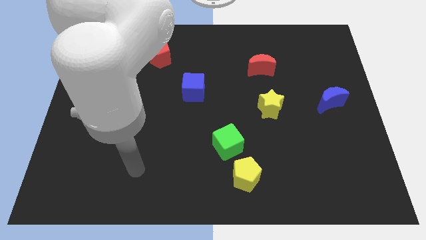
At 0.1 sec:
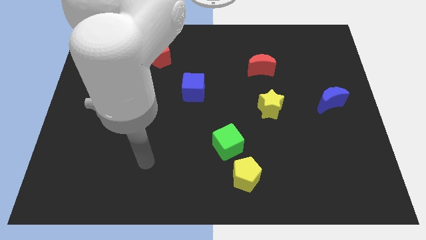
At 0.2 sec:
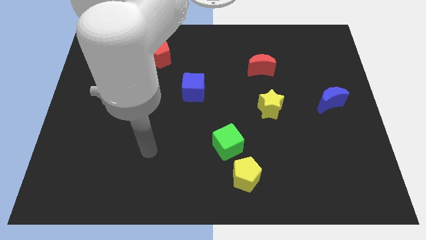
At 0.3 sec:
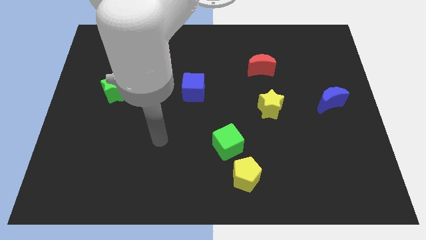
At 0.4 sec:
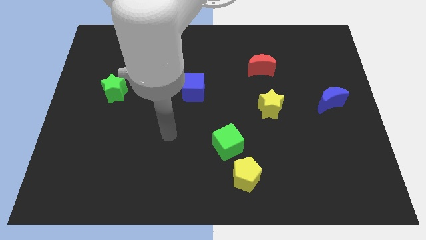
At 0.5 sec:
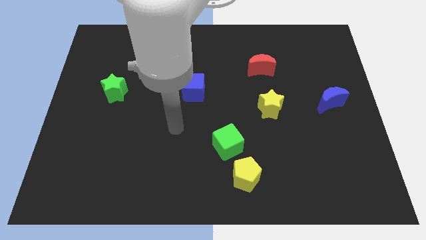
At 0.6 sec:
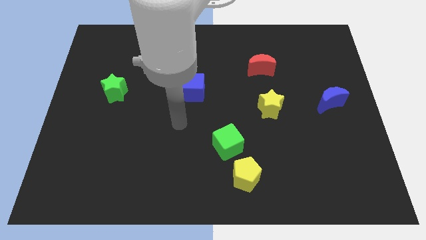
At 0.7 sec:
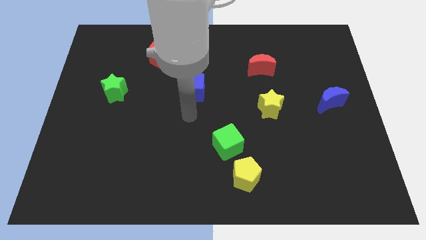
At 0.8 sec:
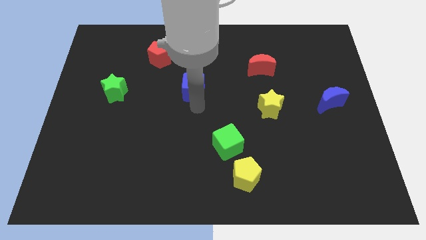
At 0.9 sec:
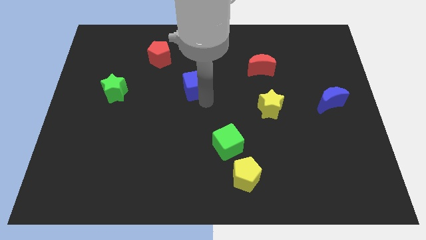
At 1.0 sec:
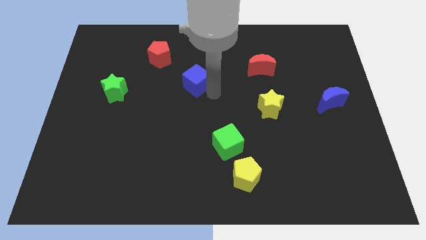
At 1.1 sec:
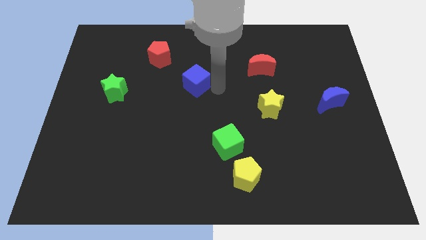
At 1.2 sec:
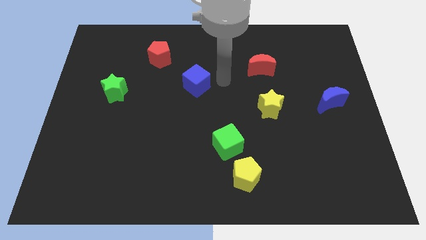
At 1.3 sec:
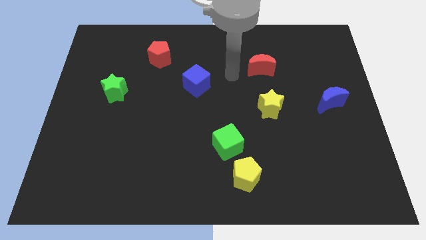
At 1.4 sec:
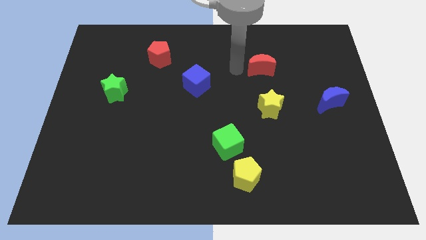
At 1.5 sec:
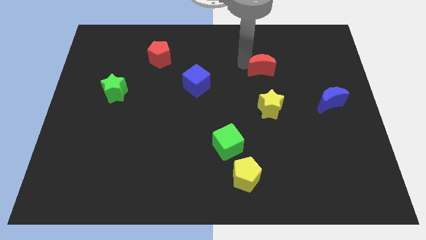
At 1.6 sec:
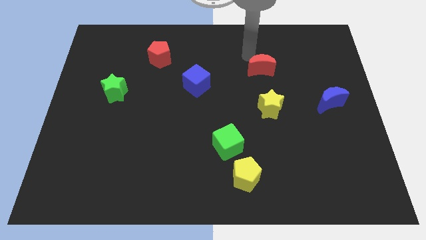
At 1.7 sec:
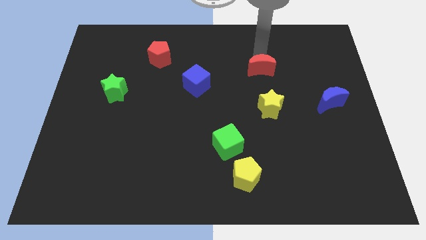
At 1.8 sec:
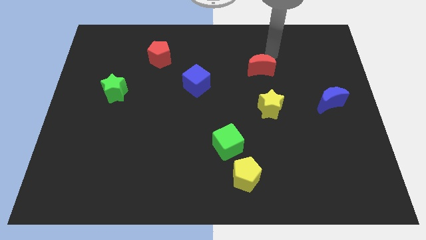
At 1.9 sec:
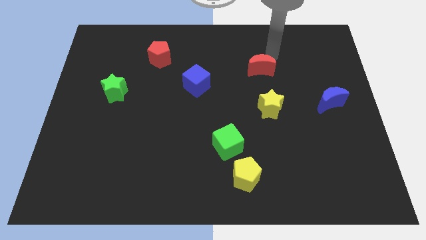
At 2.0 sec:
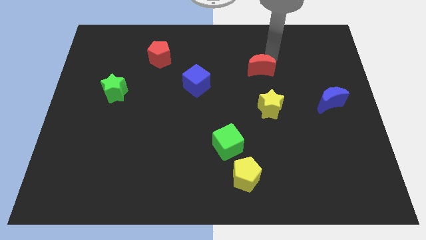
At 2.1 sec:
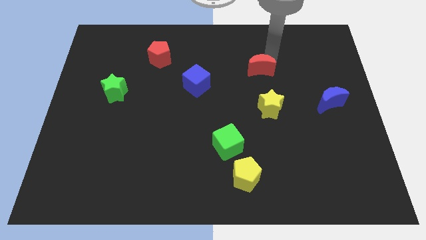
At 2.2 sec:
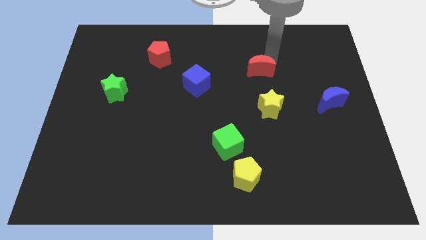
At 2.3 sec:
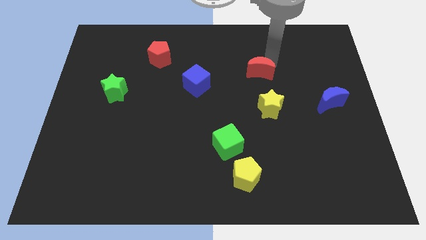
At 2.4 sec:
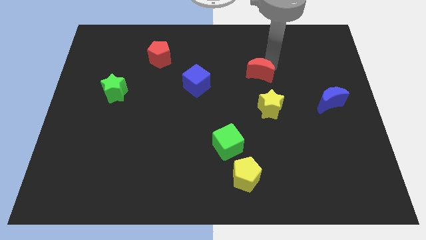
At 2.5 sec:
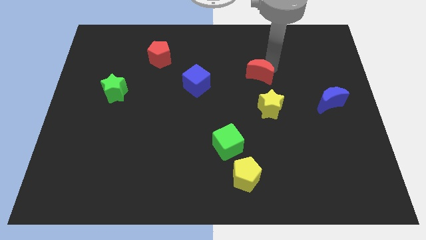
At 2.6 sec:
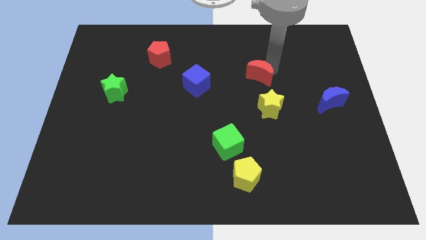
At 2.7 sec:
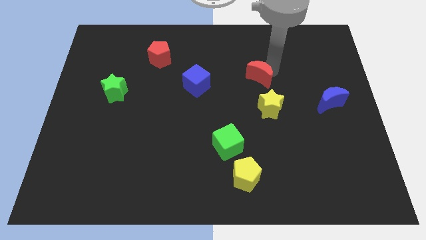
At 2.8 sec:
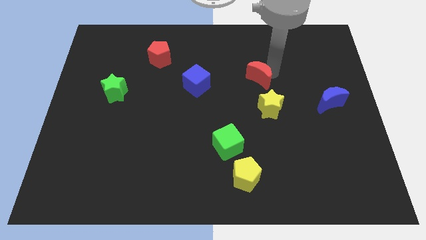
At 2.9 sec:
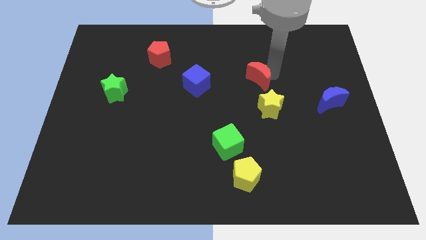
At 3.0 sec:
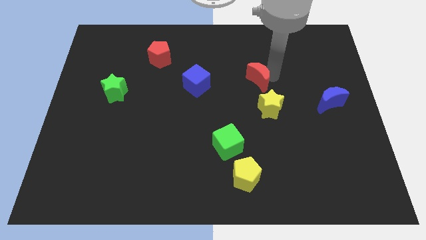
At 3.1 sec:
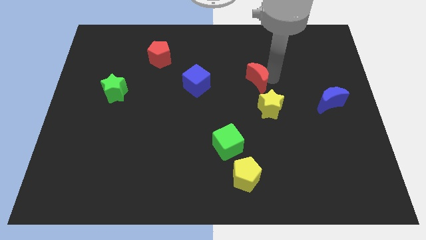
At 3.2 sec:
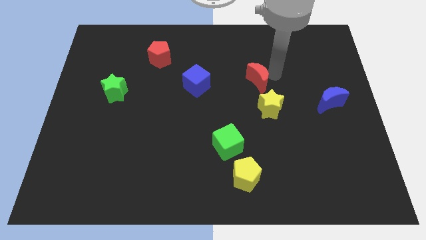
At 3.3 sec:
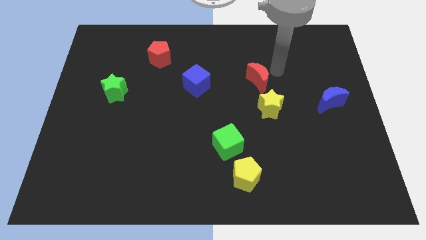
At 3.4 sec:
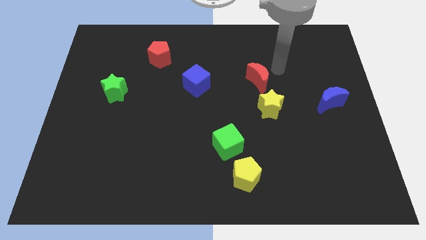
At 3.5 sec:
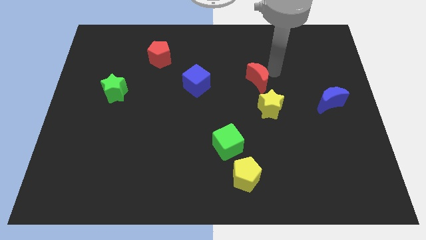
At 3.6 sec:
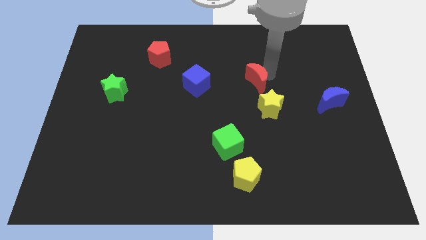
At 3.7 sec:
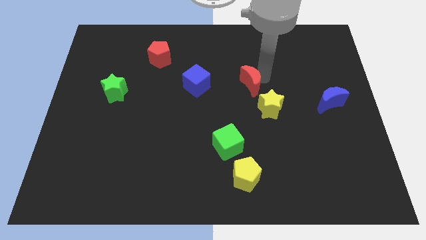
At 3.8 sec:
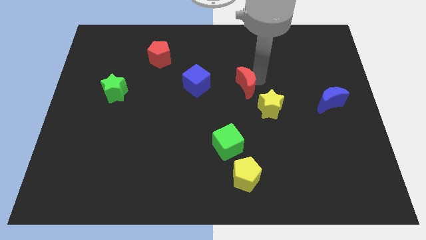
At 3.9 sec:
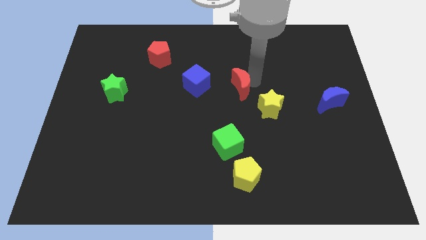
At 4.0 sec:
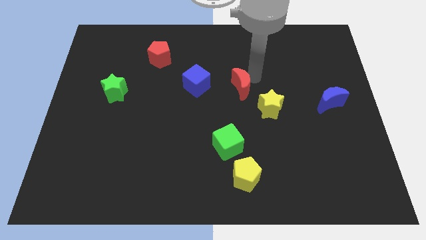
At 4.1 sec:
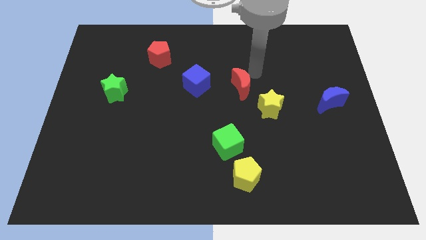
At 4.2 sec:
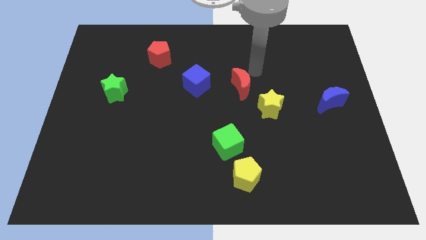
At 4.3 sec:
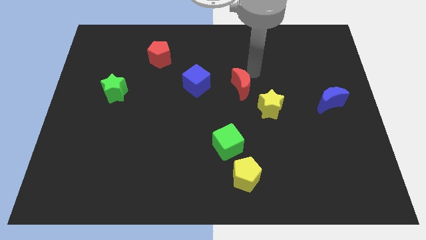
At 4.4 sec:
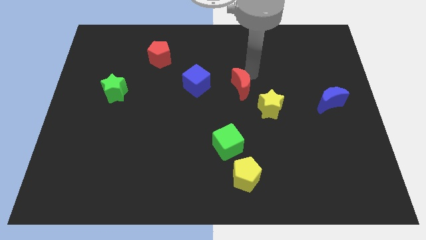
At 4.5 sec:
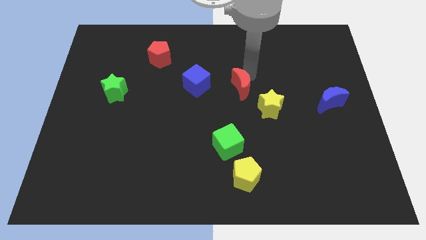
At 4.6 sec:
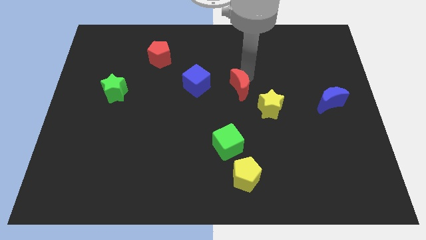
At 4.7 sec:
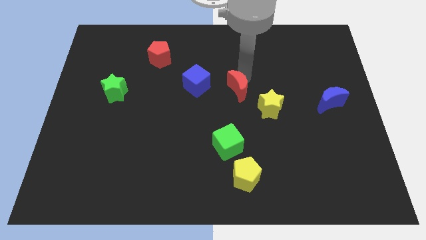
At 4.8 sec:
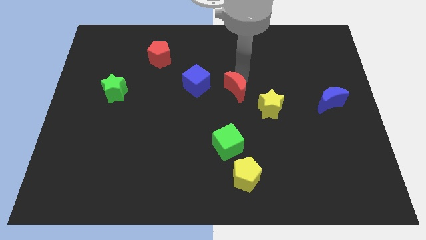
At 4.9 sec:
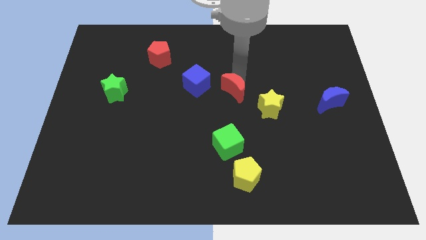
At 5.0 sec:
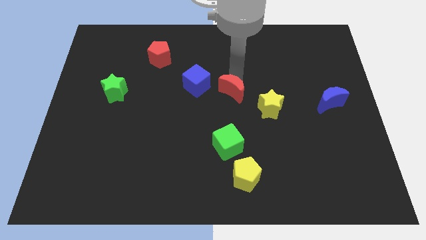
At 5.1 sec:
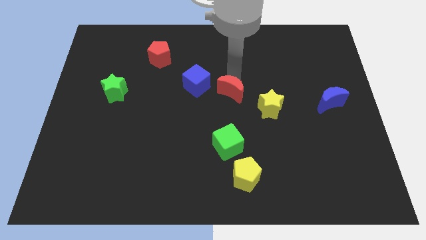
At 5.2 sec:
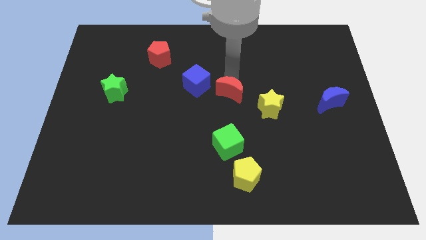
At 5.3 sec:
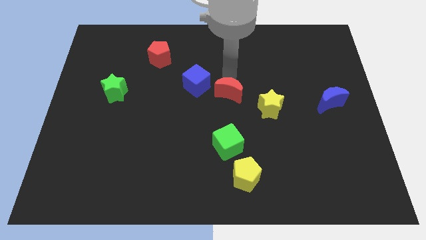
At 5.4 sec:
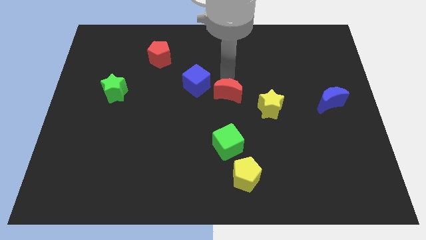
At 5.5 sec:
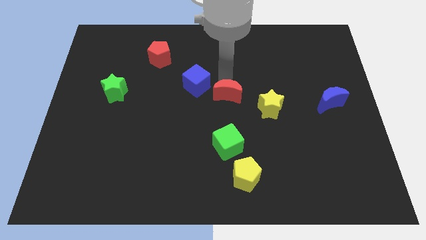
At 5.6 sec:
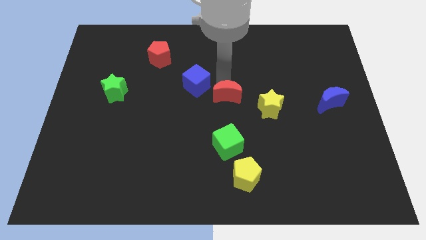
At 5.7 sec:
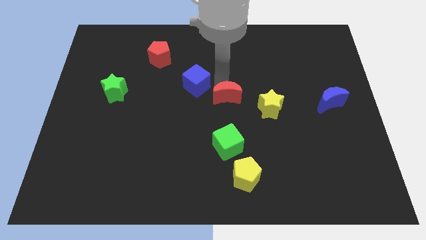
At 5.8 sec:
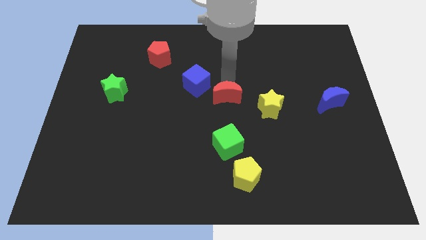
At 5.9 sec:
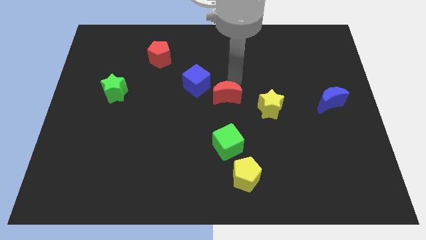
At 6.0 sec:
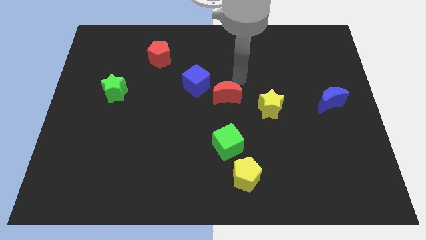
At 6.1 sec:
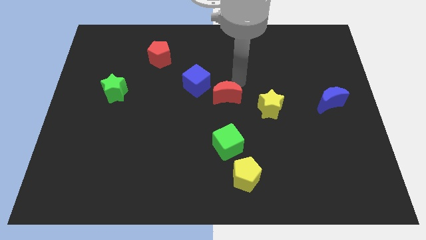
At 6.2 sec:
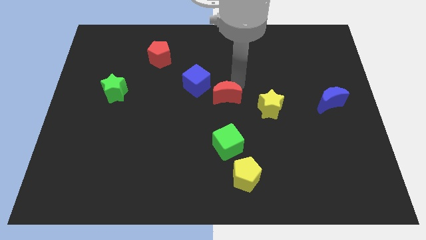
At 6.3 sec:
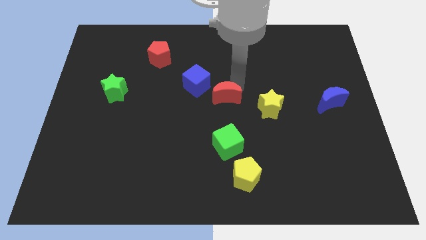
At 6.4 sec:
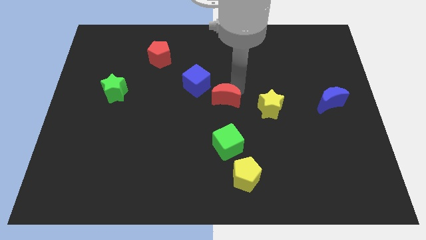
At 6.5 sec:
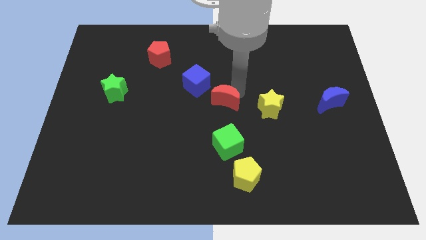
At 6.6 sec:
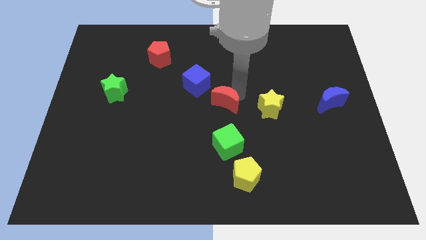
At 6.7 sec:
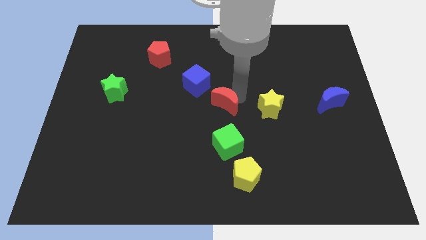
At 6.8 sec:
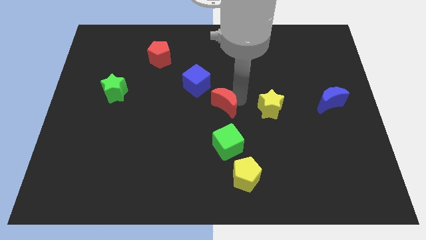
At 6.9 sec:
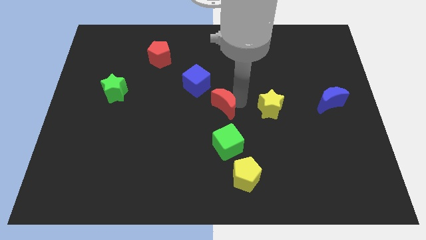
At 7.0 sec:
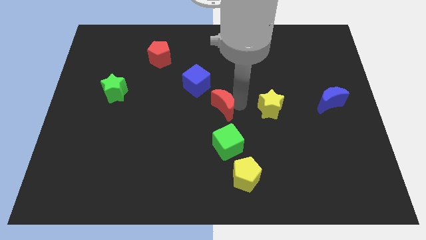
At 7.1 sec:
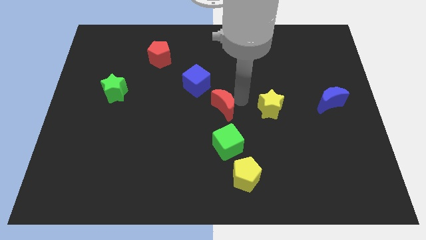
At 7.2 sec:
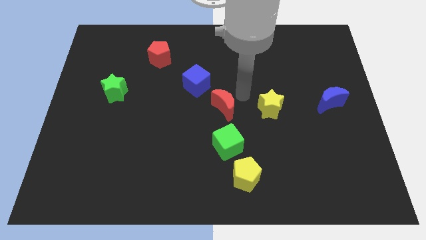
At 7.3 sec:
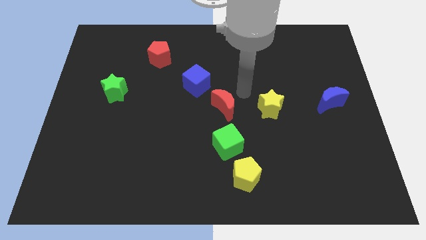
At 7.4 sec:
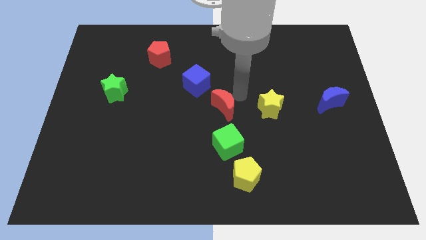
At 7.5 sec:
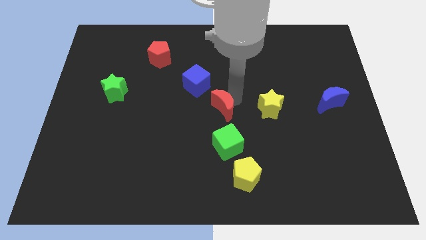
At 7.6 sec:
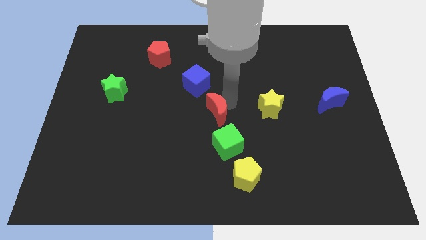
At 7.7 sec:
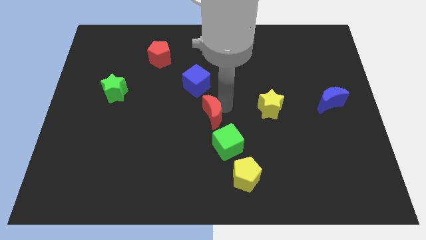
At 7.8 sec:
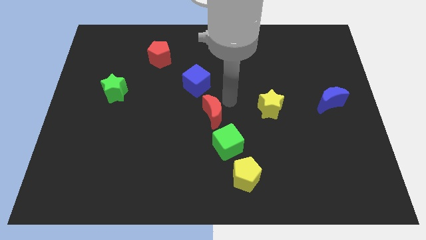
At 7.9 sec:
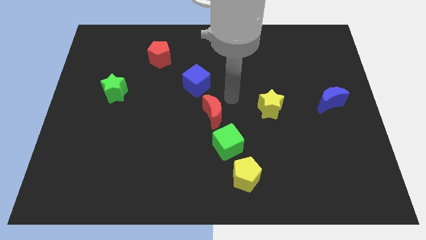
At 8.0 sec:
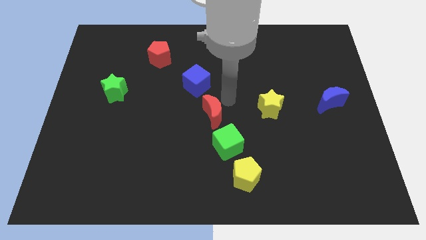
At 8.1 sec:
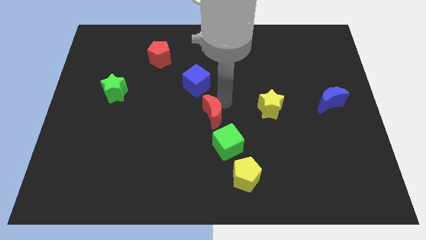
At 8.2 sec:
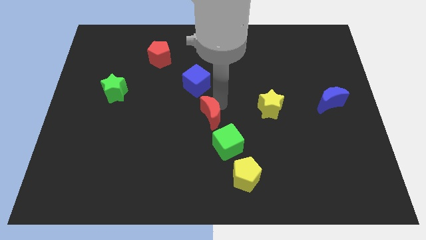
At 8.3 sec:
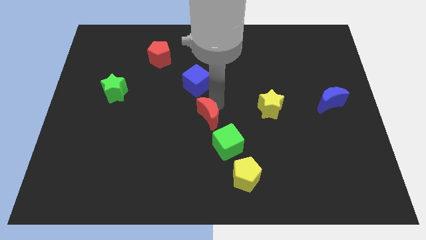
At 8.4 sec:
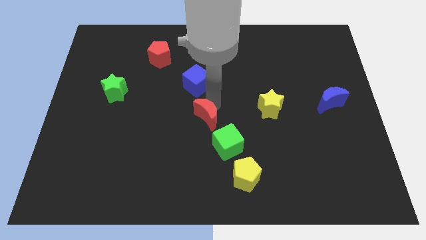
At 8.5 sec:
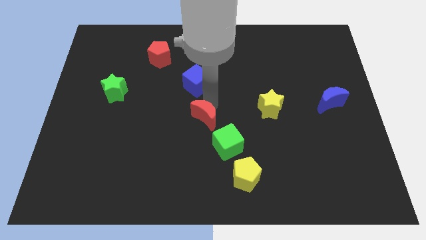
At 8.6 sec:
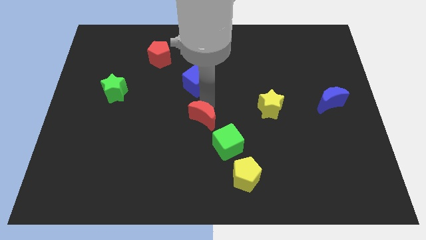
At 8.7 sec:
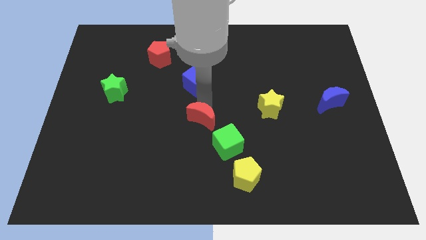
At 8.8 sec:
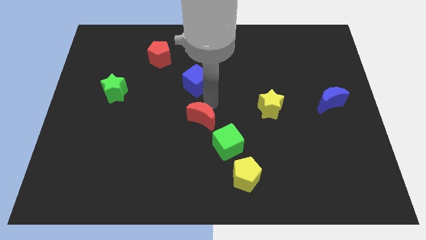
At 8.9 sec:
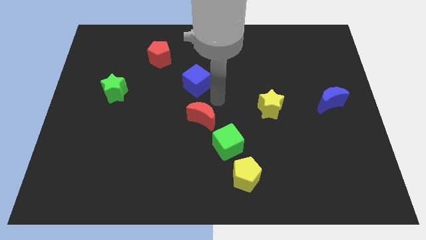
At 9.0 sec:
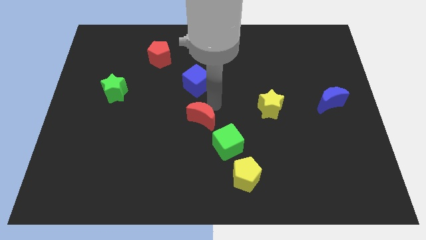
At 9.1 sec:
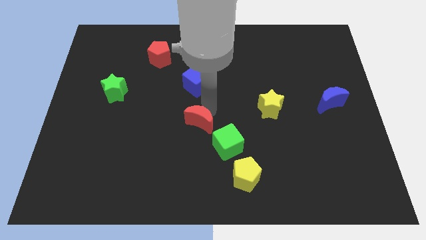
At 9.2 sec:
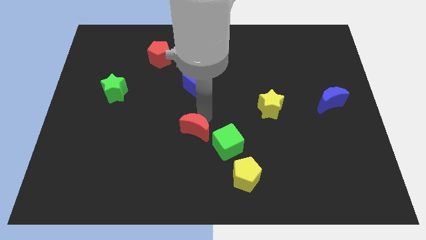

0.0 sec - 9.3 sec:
push the red moon just left of the green cube
